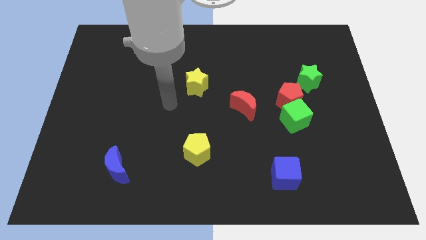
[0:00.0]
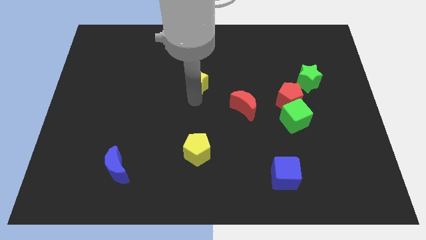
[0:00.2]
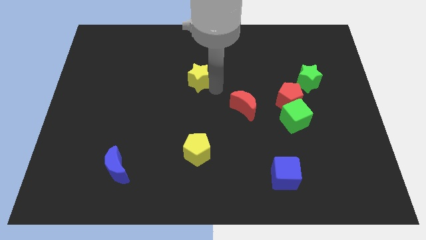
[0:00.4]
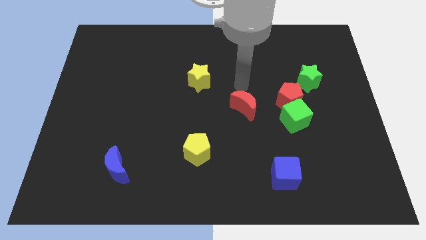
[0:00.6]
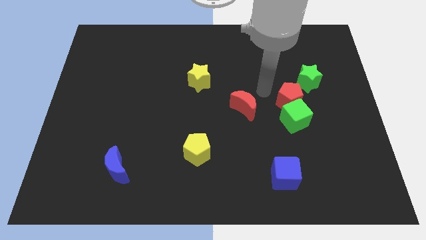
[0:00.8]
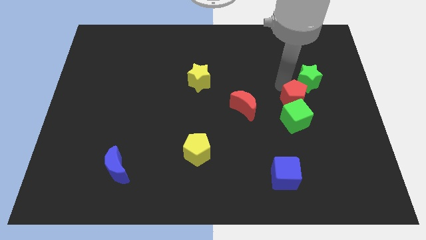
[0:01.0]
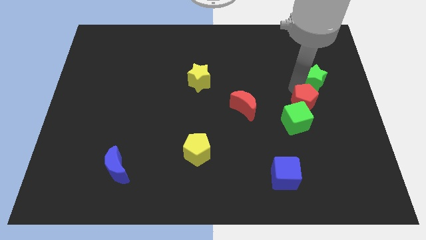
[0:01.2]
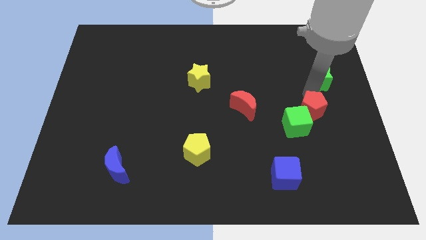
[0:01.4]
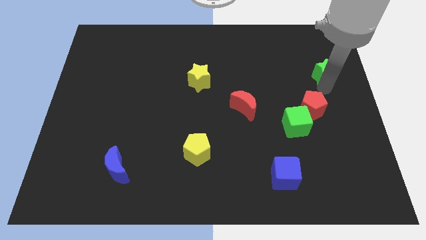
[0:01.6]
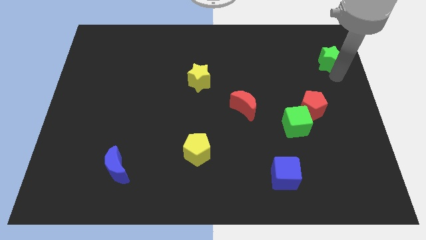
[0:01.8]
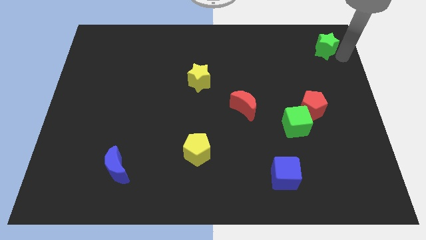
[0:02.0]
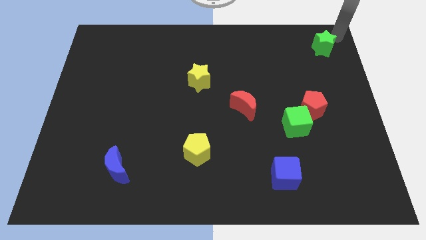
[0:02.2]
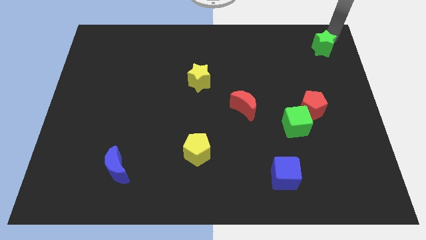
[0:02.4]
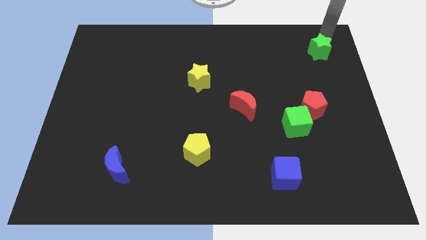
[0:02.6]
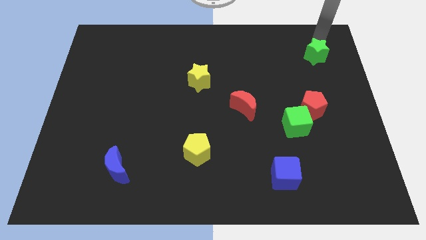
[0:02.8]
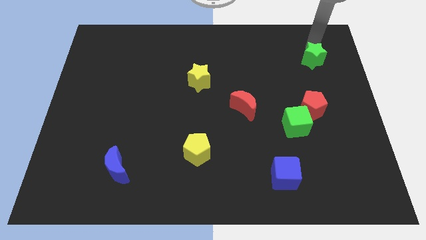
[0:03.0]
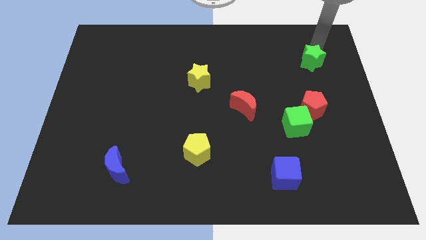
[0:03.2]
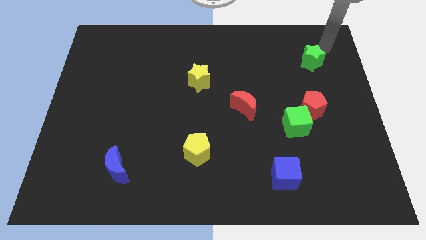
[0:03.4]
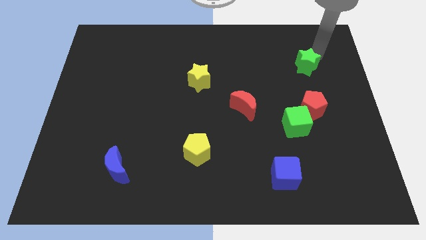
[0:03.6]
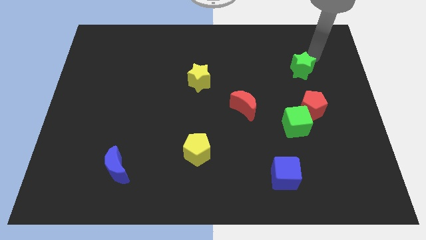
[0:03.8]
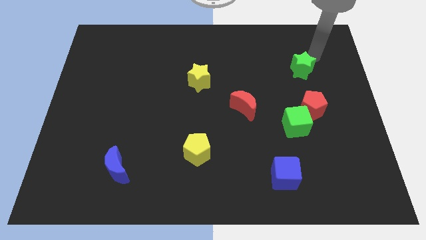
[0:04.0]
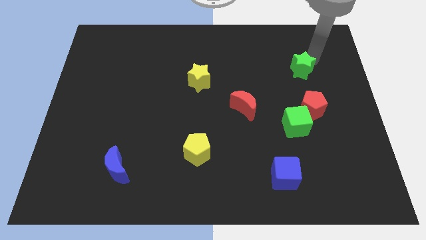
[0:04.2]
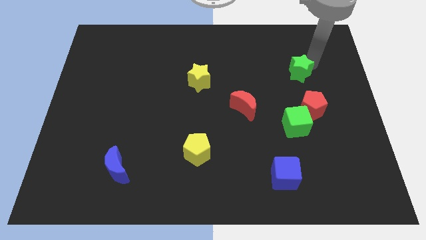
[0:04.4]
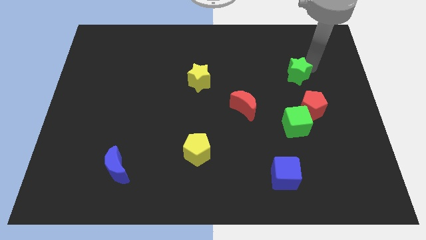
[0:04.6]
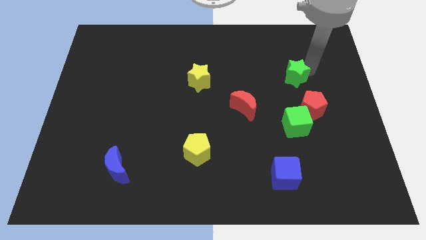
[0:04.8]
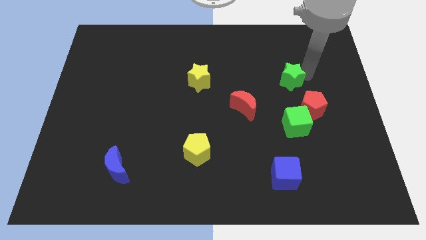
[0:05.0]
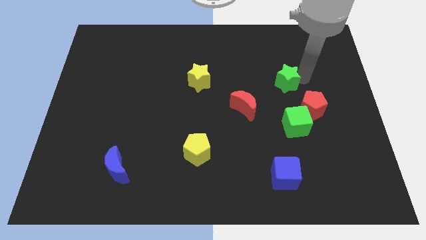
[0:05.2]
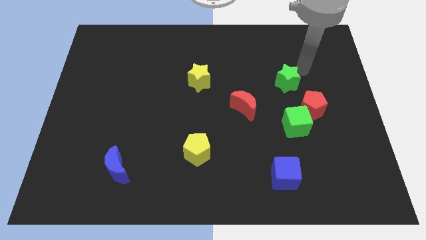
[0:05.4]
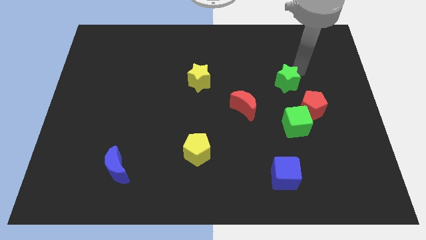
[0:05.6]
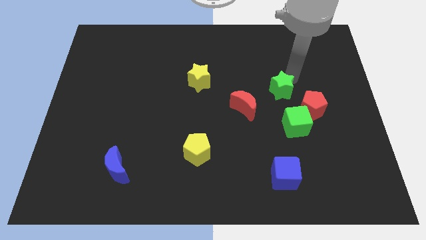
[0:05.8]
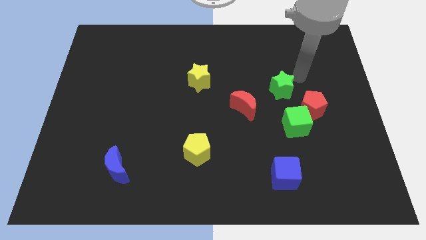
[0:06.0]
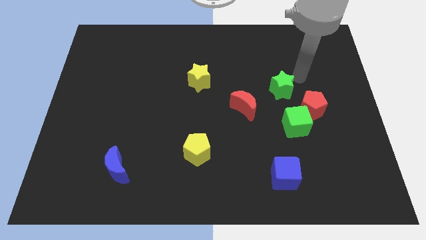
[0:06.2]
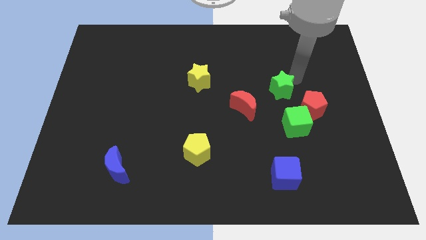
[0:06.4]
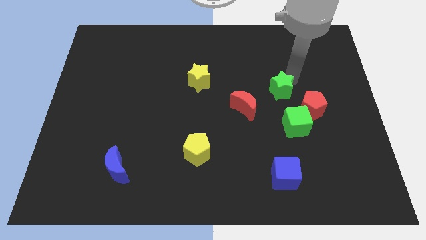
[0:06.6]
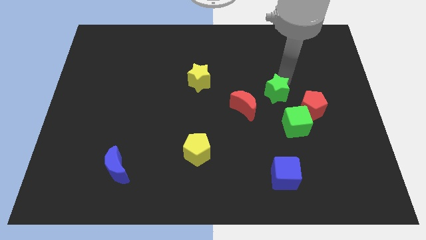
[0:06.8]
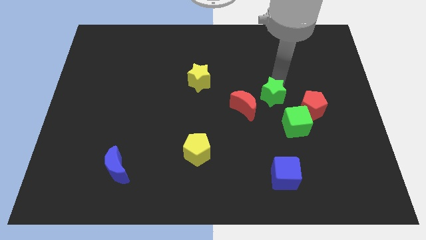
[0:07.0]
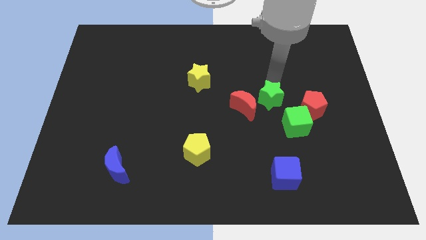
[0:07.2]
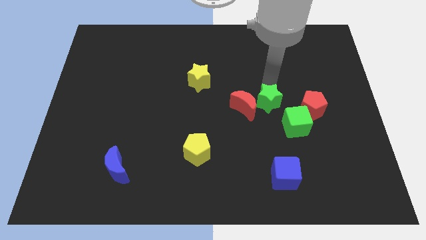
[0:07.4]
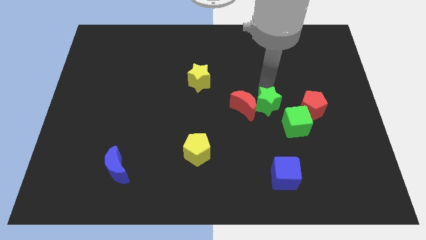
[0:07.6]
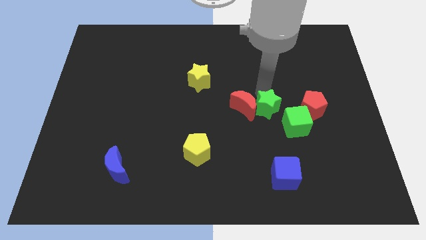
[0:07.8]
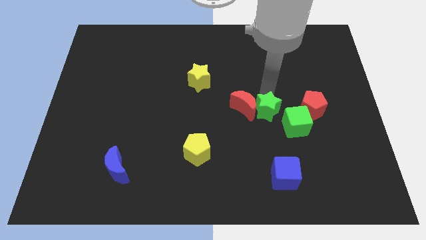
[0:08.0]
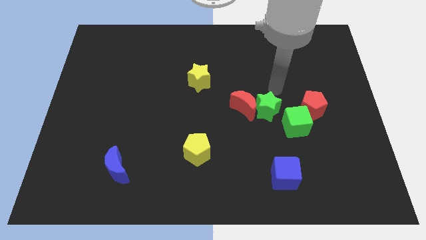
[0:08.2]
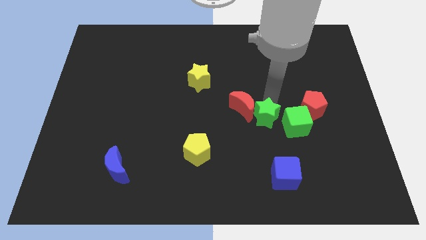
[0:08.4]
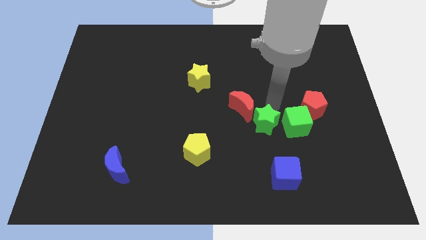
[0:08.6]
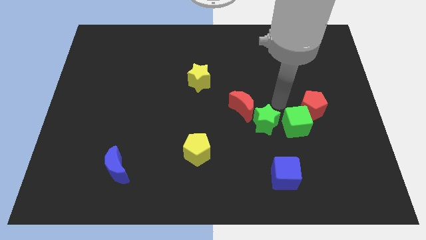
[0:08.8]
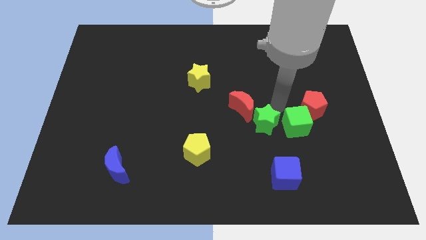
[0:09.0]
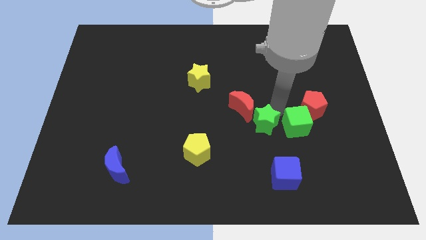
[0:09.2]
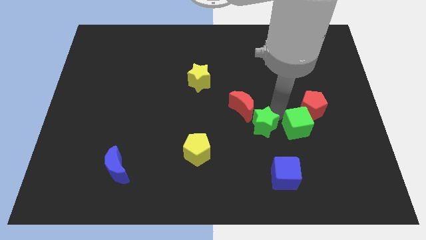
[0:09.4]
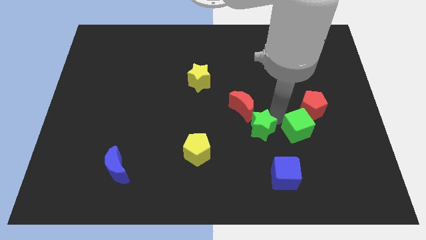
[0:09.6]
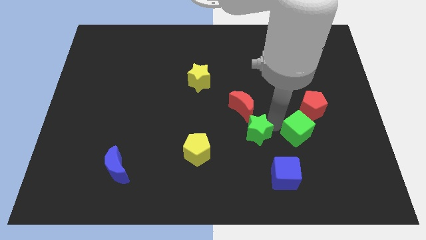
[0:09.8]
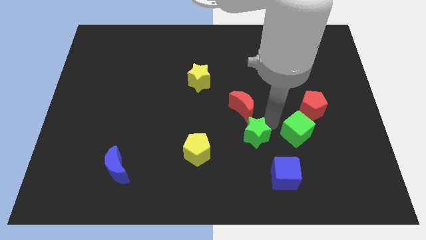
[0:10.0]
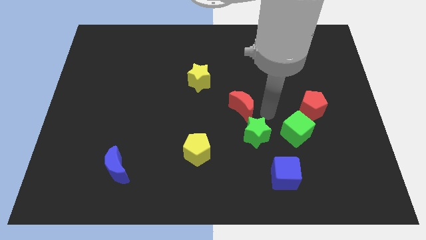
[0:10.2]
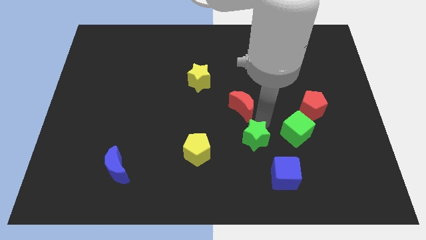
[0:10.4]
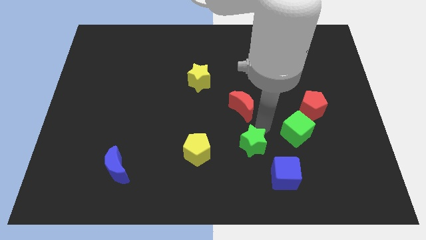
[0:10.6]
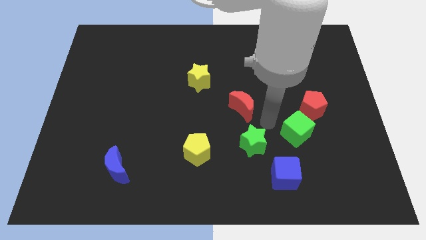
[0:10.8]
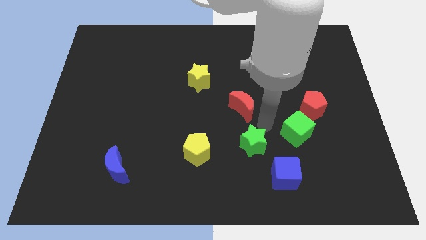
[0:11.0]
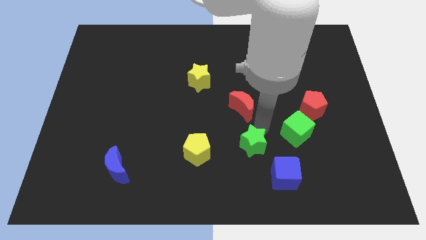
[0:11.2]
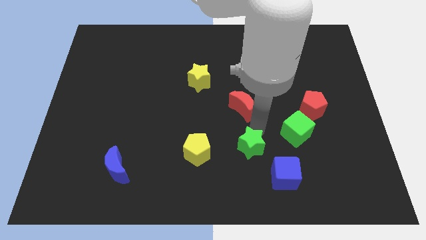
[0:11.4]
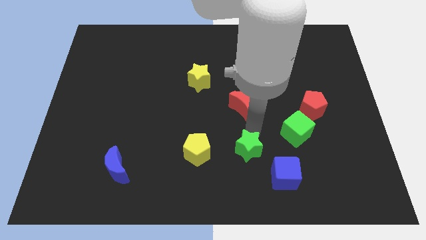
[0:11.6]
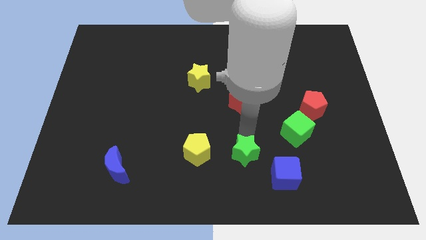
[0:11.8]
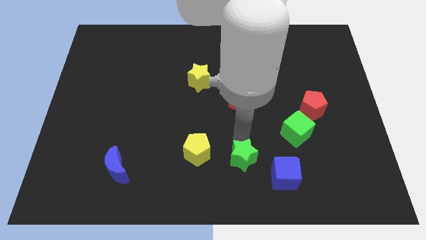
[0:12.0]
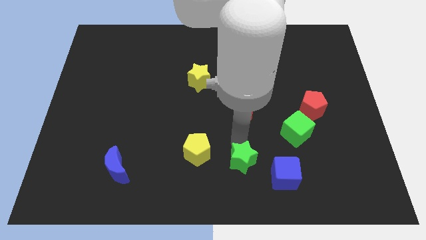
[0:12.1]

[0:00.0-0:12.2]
slide the green star to the bottom side
